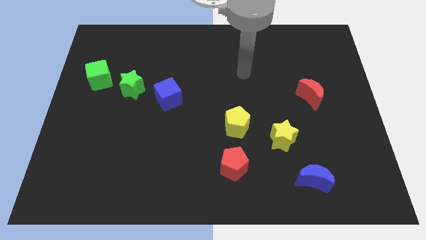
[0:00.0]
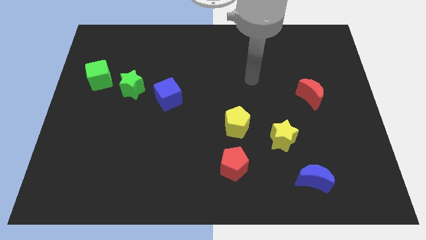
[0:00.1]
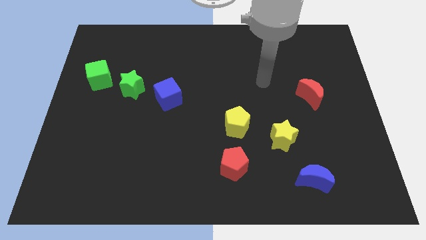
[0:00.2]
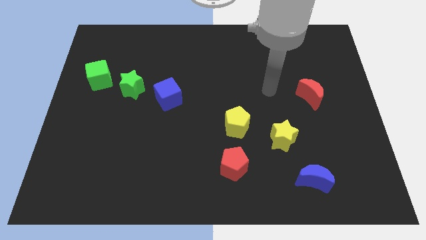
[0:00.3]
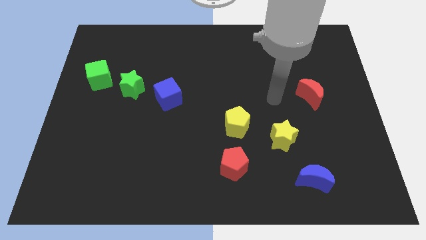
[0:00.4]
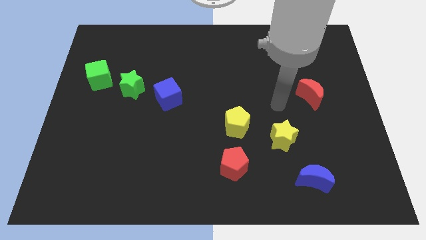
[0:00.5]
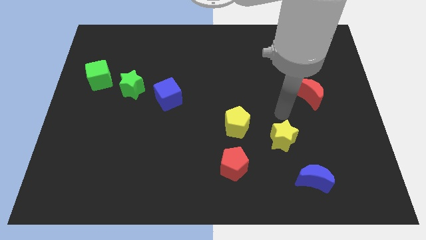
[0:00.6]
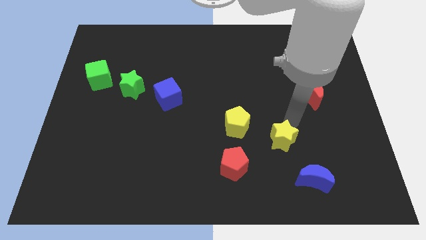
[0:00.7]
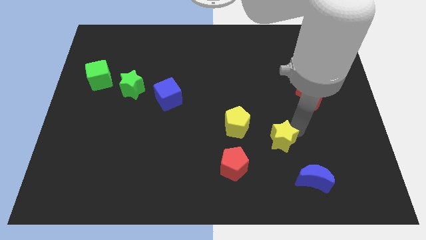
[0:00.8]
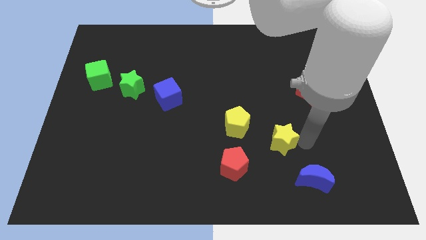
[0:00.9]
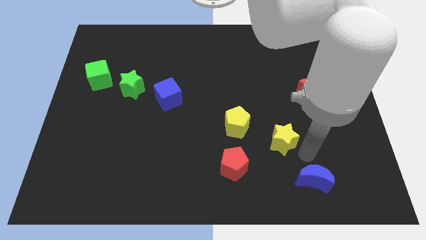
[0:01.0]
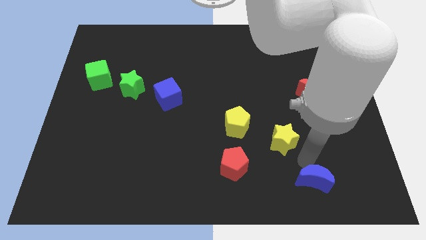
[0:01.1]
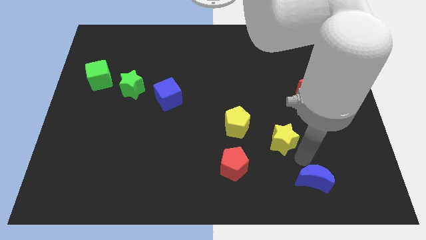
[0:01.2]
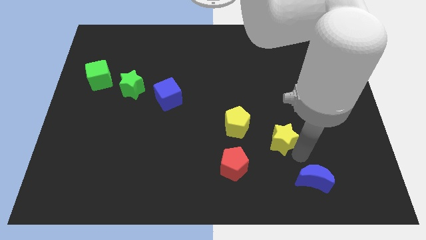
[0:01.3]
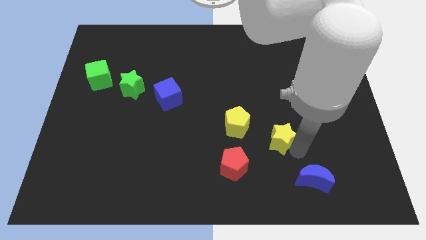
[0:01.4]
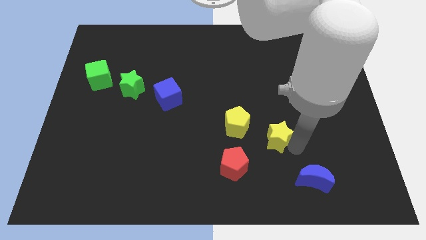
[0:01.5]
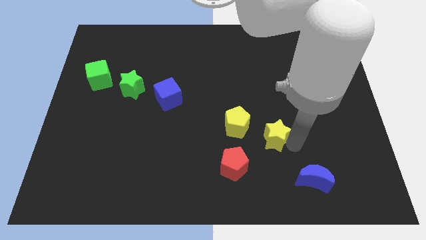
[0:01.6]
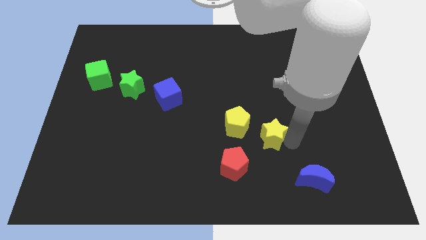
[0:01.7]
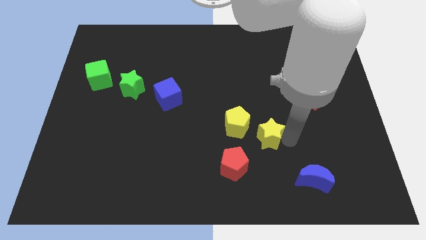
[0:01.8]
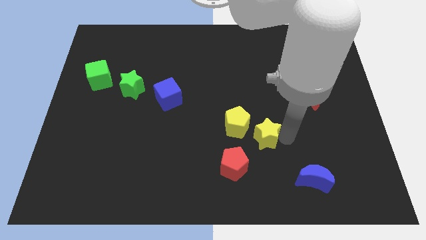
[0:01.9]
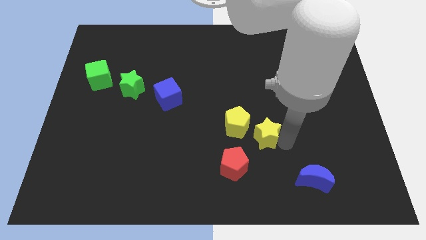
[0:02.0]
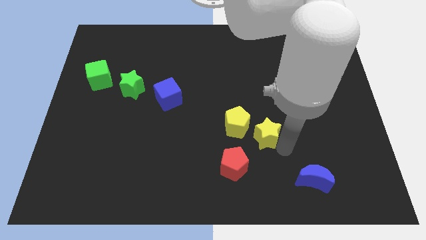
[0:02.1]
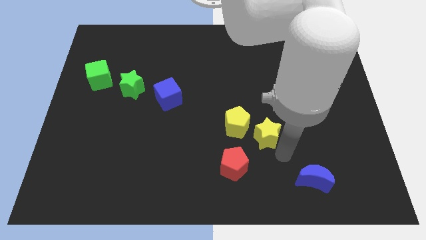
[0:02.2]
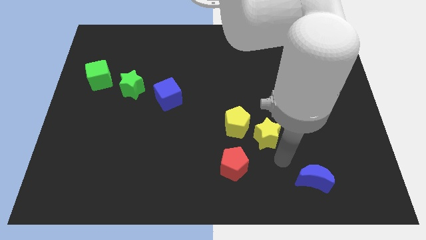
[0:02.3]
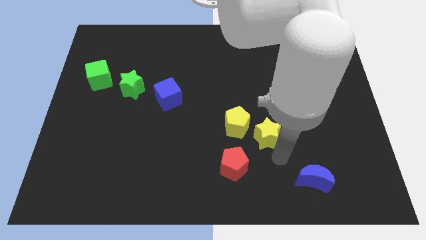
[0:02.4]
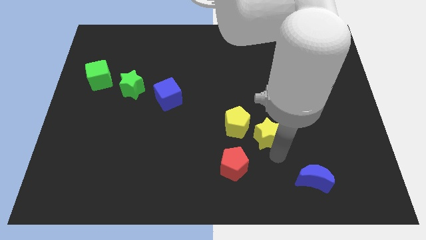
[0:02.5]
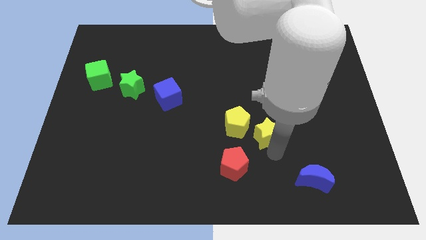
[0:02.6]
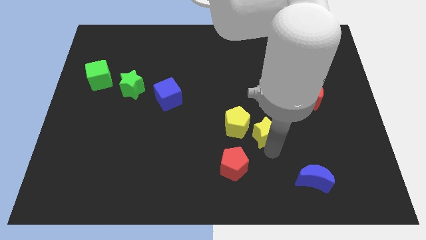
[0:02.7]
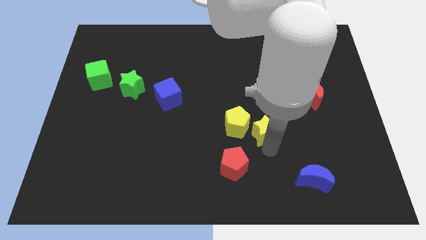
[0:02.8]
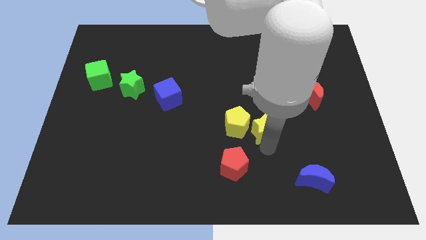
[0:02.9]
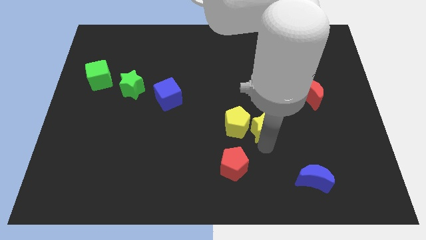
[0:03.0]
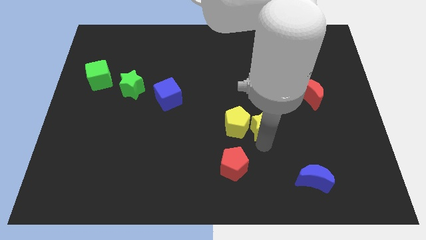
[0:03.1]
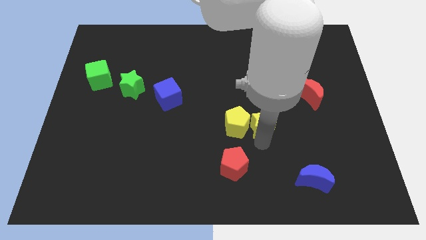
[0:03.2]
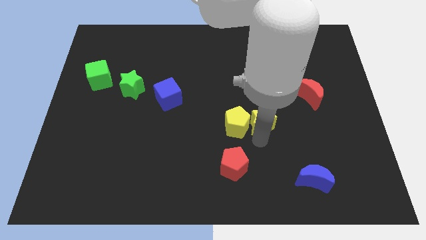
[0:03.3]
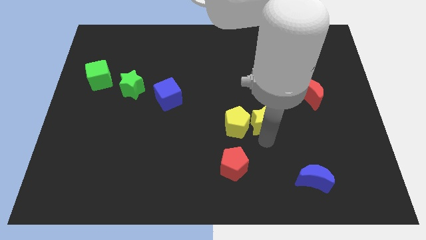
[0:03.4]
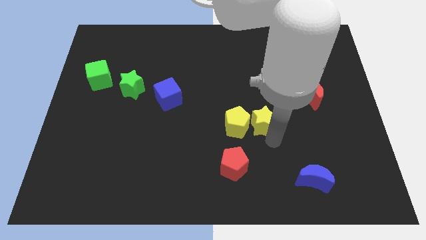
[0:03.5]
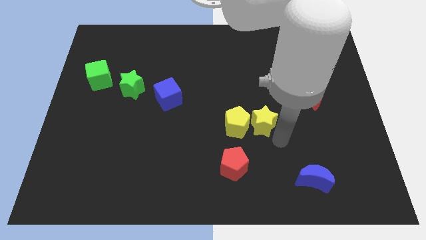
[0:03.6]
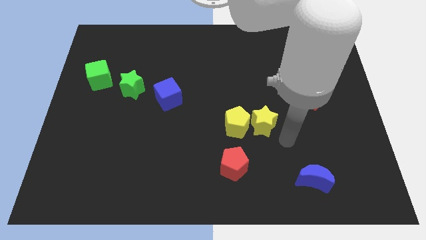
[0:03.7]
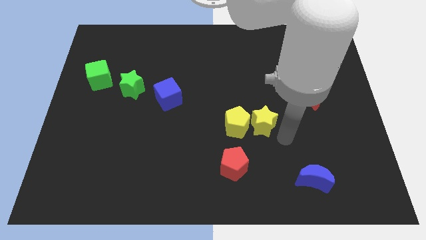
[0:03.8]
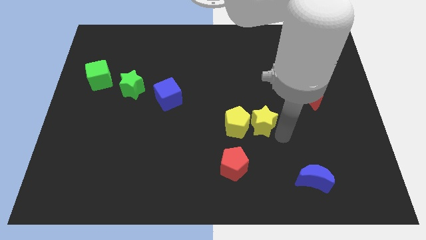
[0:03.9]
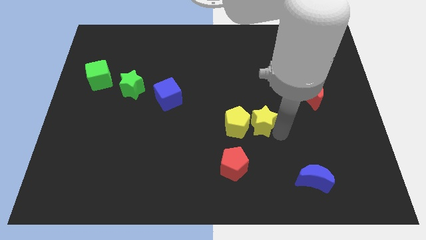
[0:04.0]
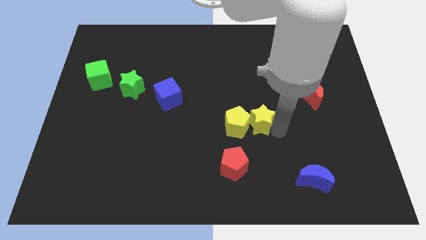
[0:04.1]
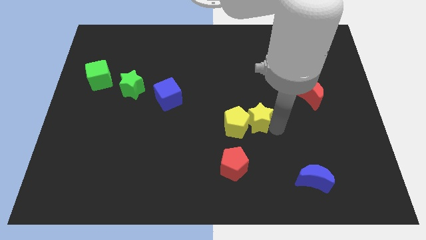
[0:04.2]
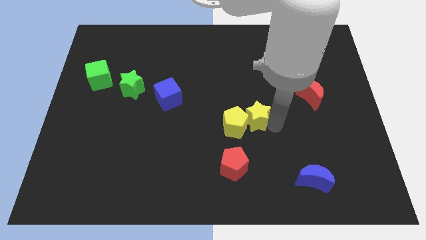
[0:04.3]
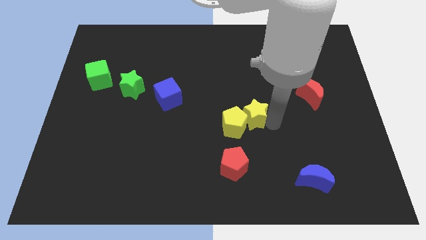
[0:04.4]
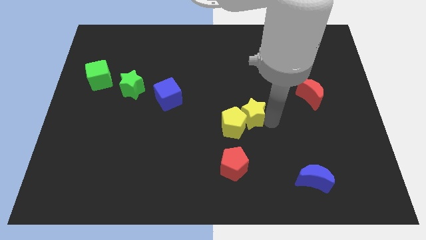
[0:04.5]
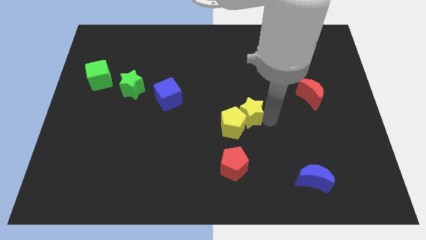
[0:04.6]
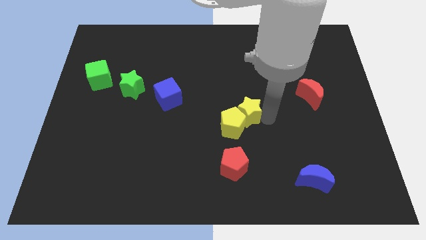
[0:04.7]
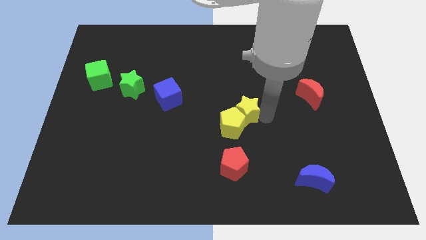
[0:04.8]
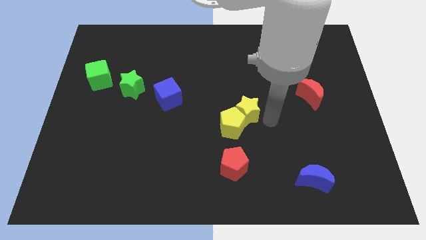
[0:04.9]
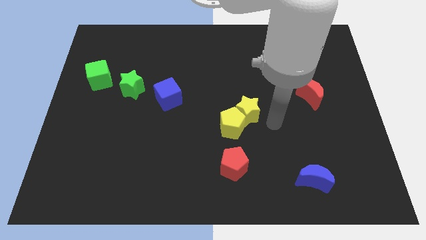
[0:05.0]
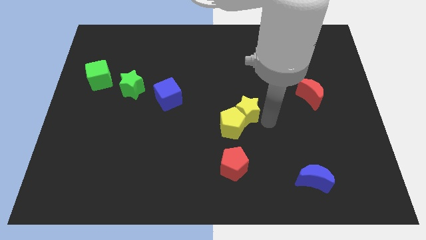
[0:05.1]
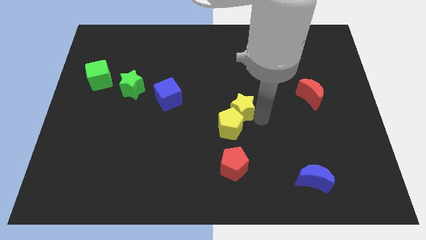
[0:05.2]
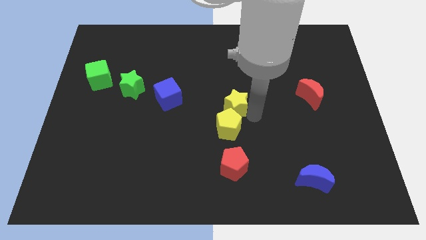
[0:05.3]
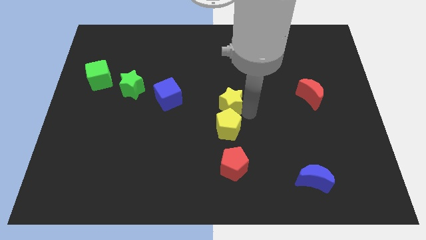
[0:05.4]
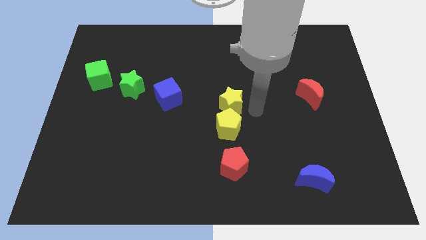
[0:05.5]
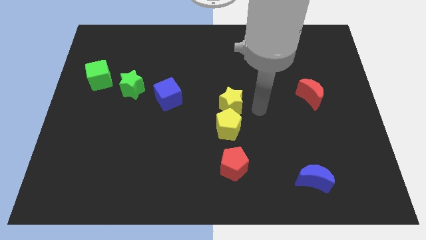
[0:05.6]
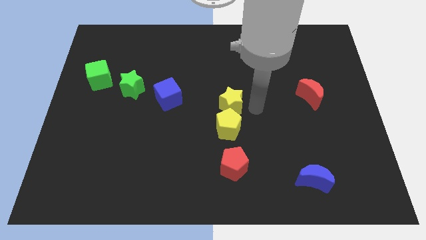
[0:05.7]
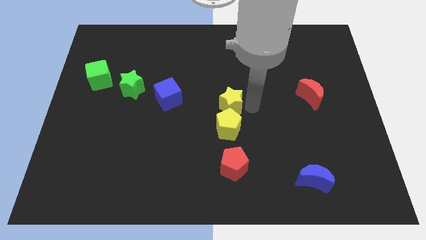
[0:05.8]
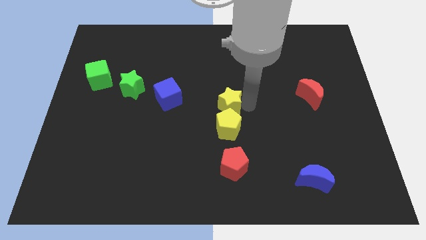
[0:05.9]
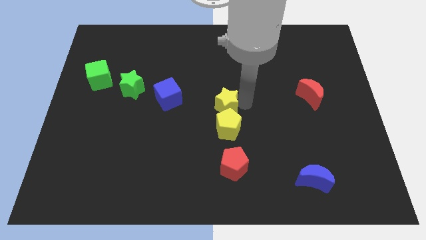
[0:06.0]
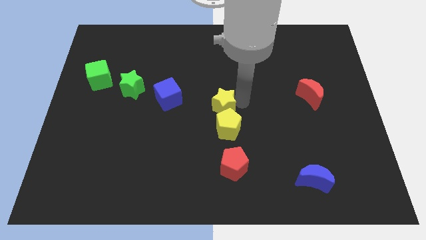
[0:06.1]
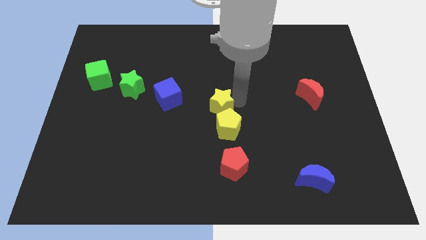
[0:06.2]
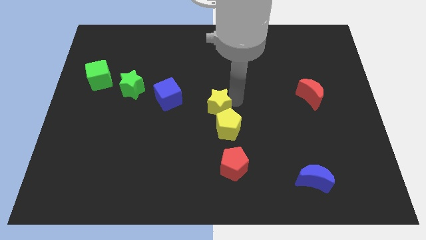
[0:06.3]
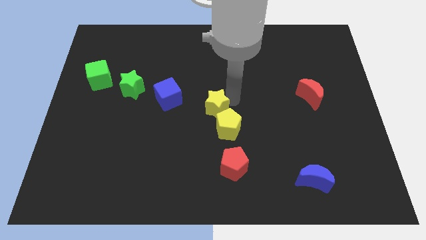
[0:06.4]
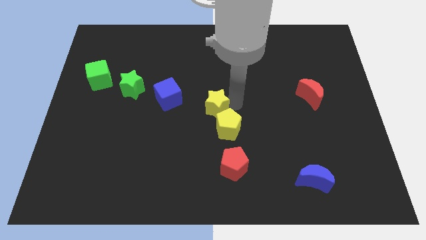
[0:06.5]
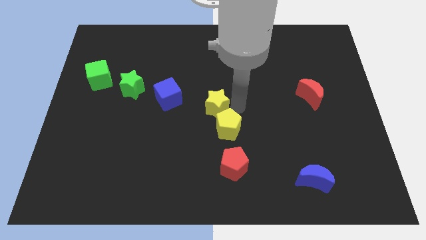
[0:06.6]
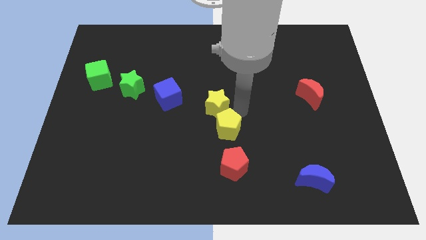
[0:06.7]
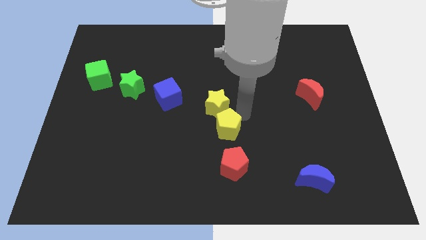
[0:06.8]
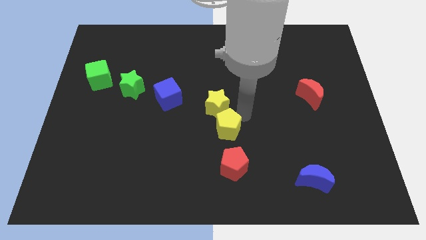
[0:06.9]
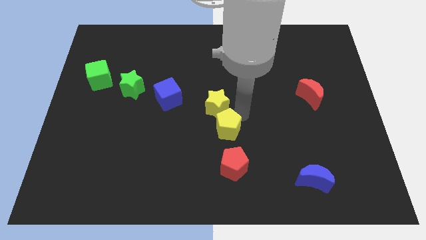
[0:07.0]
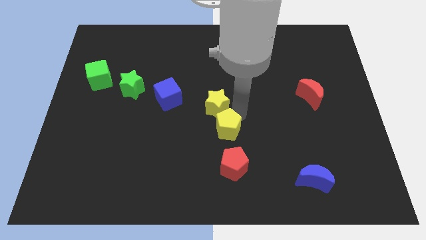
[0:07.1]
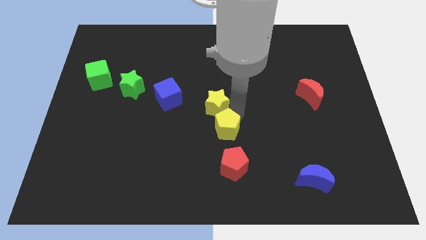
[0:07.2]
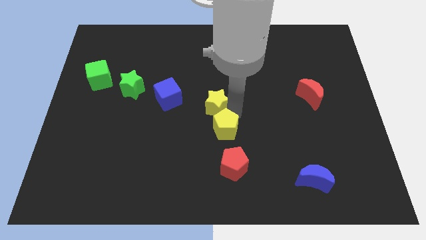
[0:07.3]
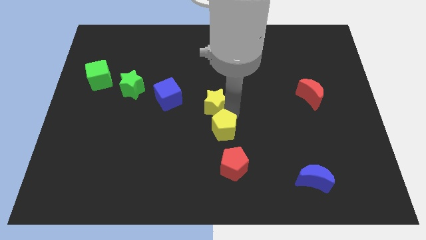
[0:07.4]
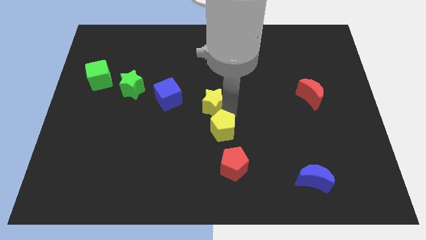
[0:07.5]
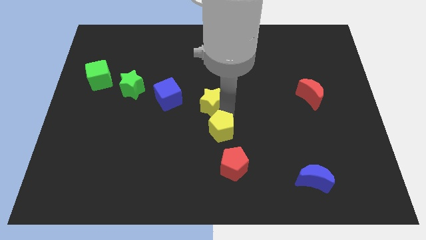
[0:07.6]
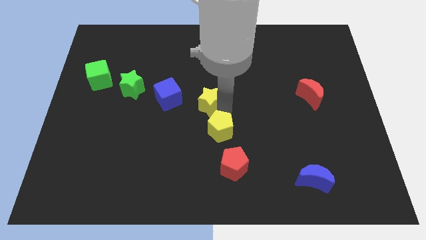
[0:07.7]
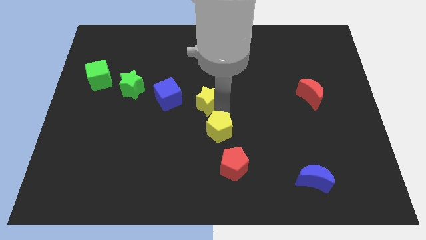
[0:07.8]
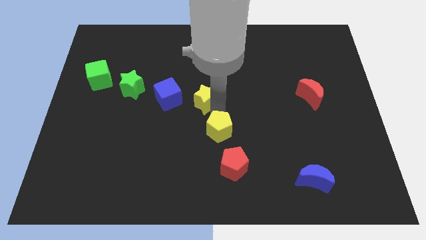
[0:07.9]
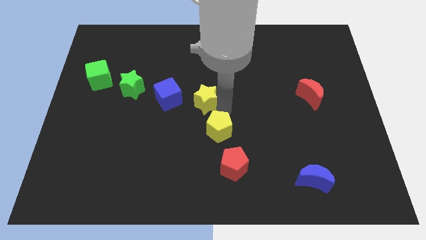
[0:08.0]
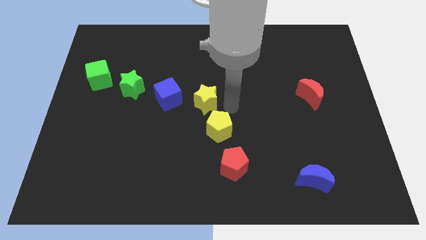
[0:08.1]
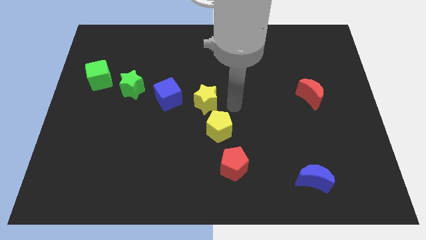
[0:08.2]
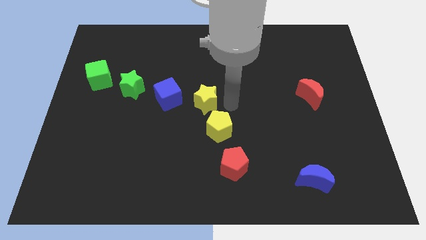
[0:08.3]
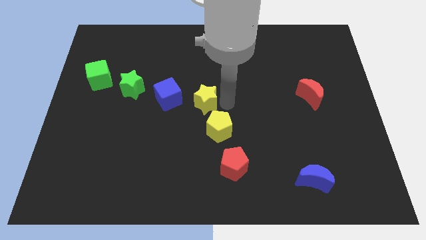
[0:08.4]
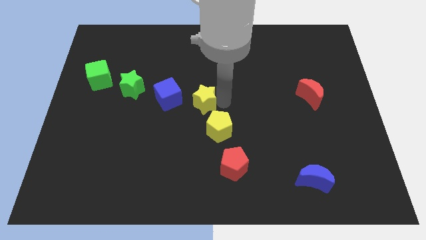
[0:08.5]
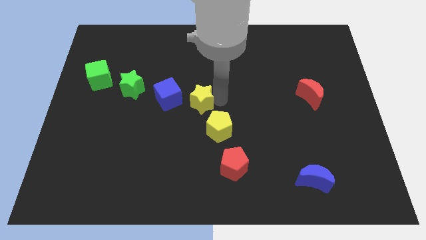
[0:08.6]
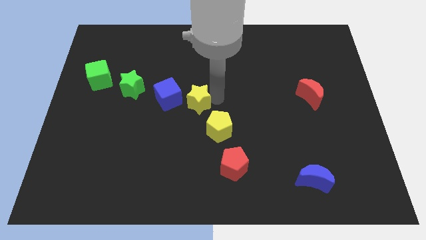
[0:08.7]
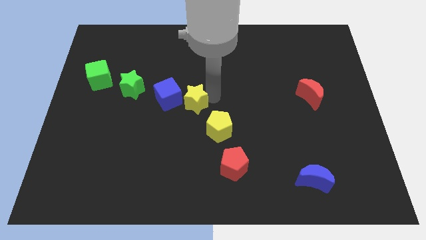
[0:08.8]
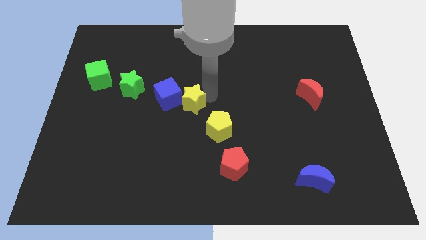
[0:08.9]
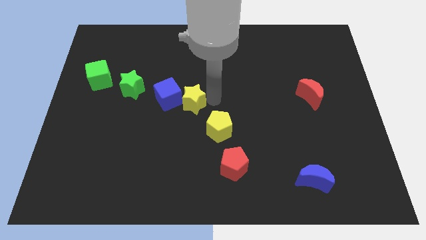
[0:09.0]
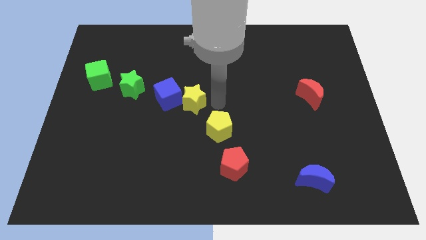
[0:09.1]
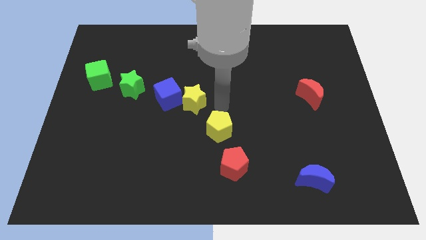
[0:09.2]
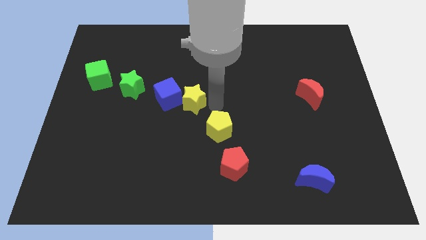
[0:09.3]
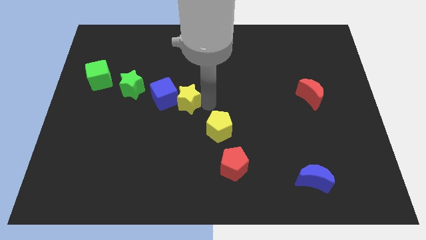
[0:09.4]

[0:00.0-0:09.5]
put the yellow star to the blue cube
